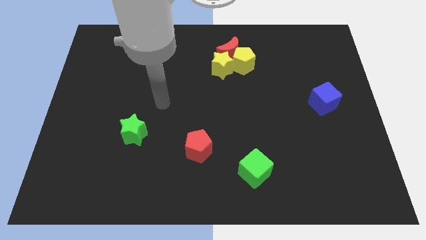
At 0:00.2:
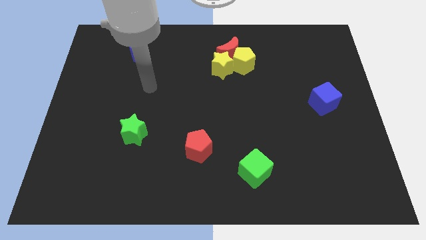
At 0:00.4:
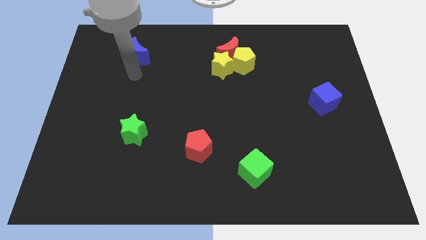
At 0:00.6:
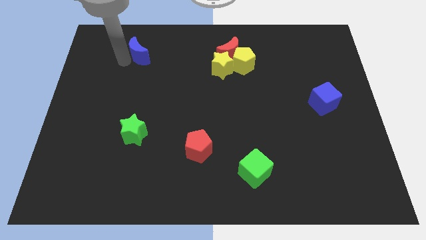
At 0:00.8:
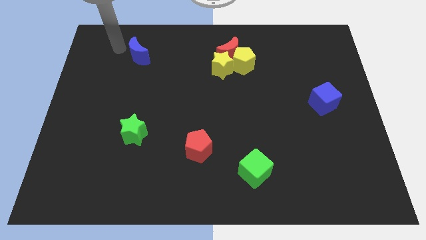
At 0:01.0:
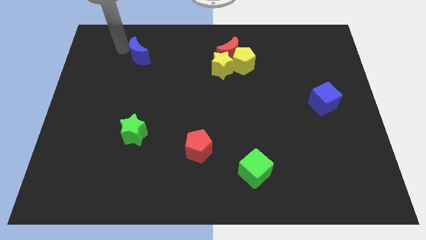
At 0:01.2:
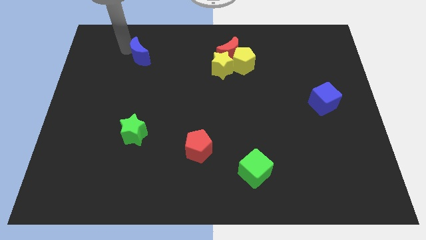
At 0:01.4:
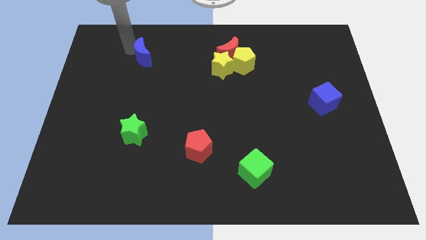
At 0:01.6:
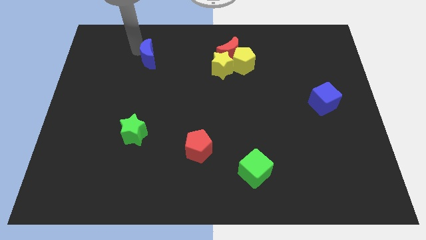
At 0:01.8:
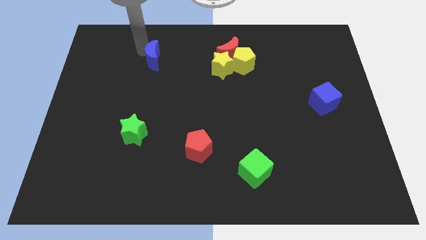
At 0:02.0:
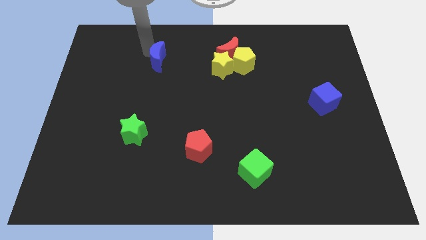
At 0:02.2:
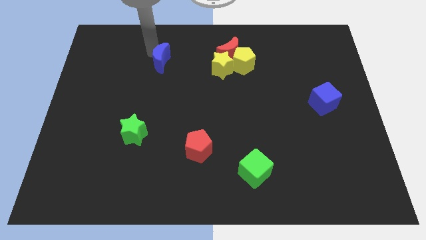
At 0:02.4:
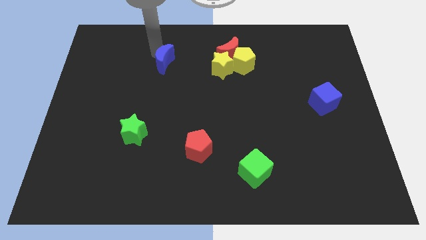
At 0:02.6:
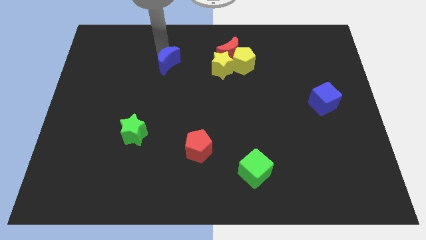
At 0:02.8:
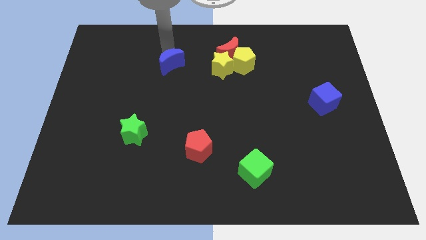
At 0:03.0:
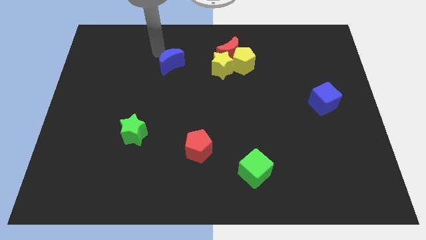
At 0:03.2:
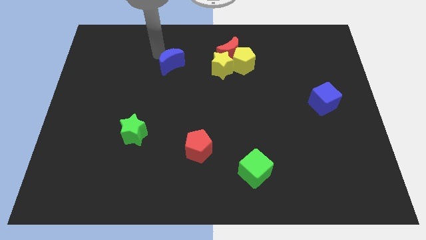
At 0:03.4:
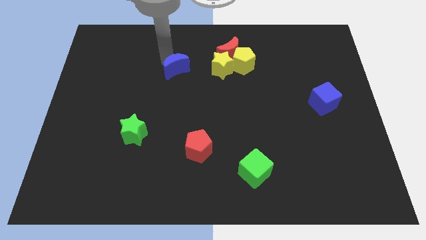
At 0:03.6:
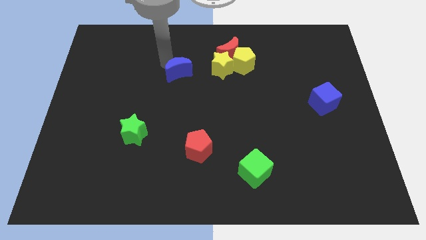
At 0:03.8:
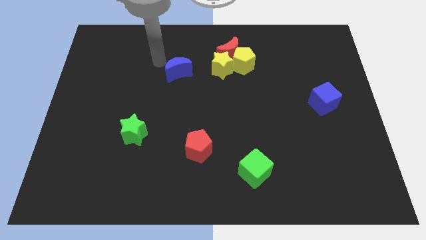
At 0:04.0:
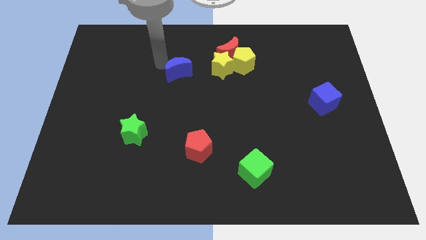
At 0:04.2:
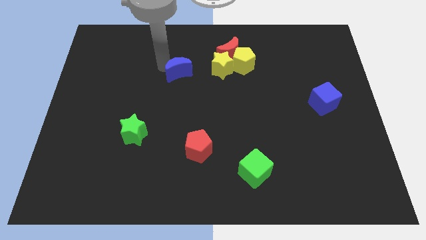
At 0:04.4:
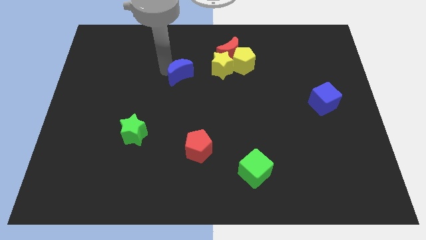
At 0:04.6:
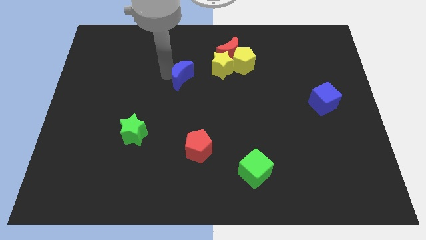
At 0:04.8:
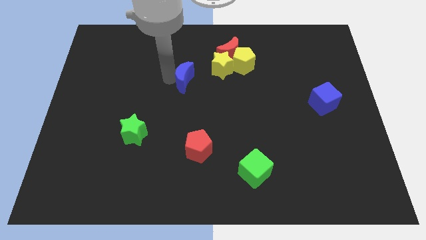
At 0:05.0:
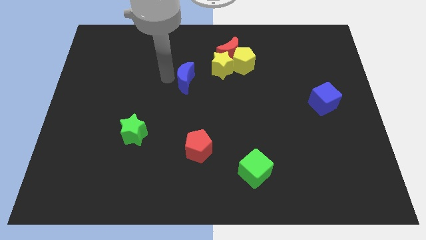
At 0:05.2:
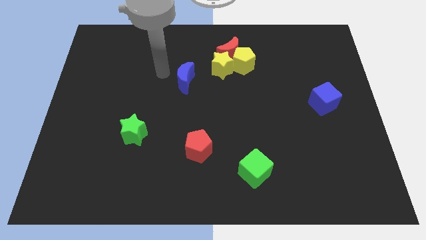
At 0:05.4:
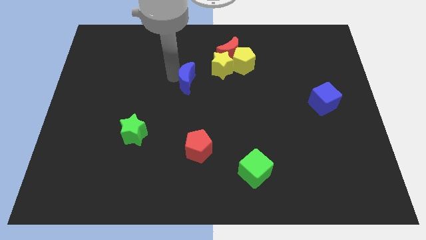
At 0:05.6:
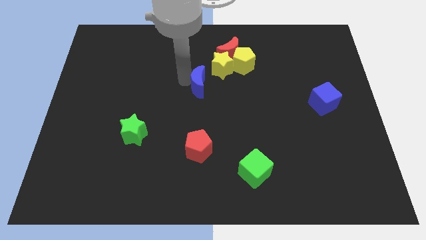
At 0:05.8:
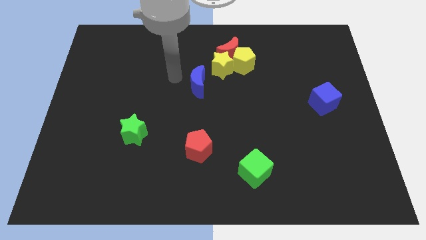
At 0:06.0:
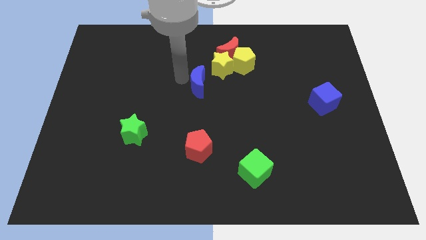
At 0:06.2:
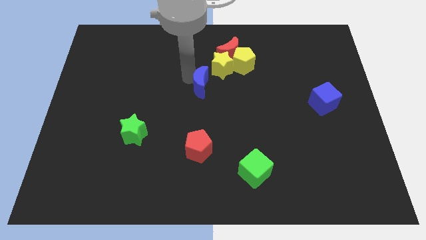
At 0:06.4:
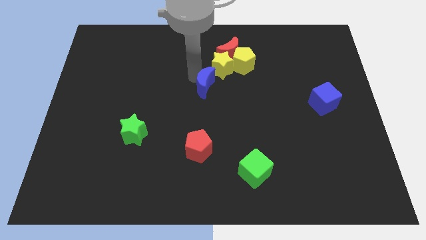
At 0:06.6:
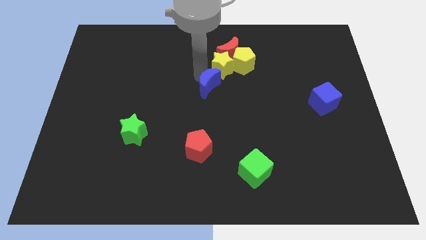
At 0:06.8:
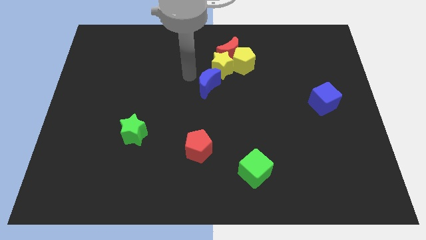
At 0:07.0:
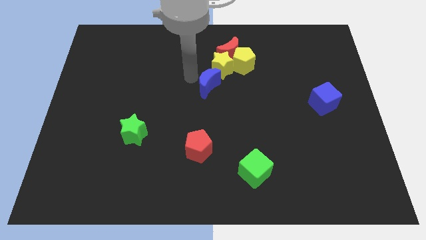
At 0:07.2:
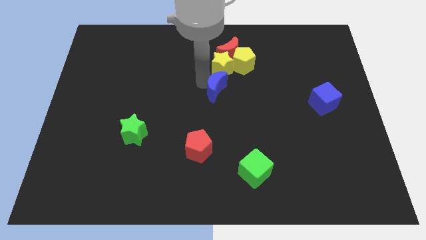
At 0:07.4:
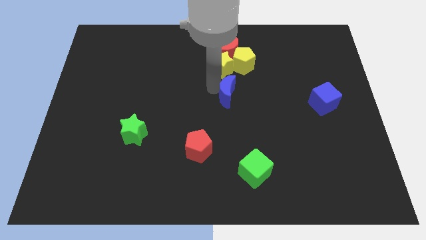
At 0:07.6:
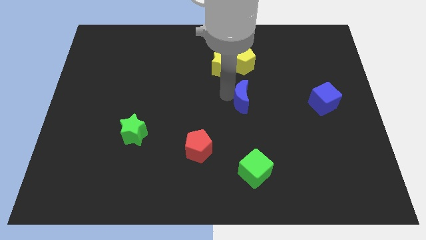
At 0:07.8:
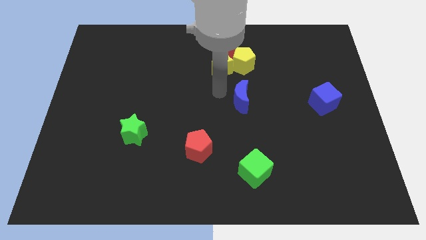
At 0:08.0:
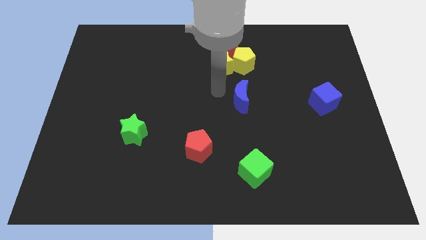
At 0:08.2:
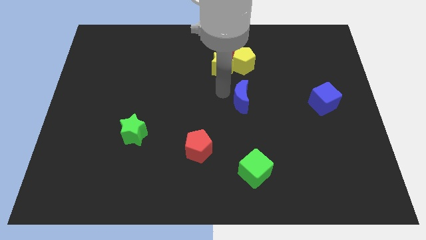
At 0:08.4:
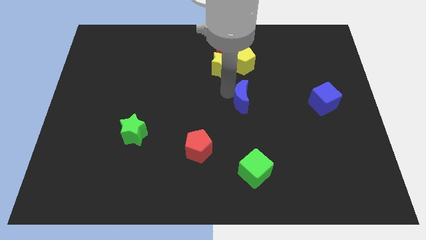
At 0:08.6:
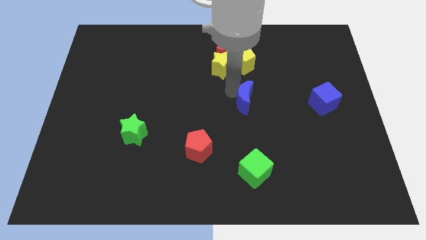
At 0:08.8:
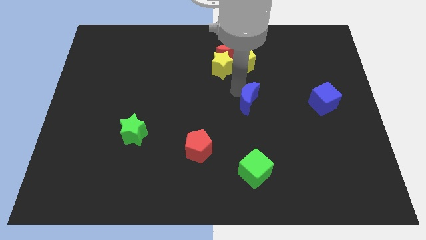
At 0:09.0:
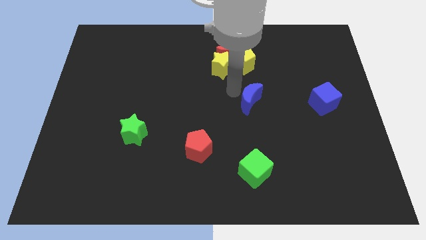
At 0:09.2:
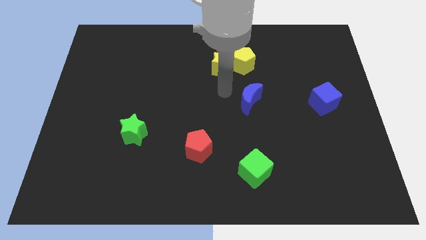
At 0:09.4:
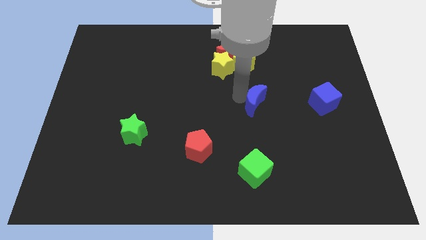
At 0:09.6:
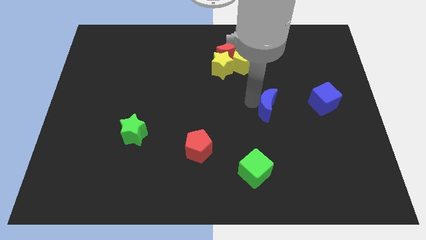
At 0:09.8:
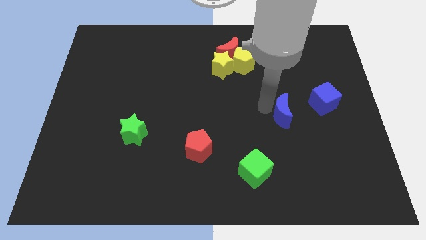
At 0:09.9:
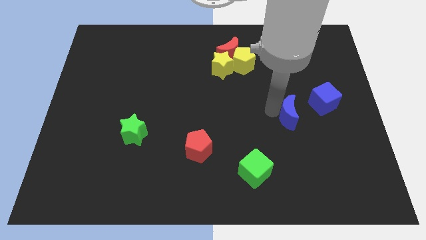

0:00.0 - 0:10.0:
move the blue moon to the bottom left of the blue cube

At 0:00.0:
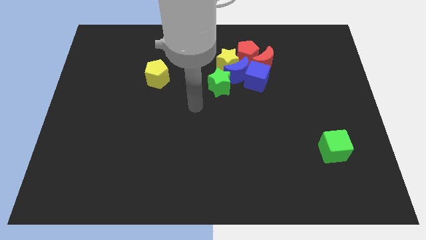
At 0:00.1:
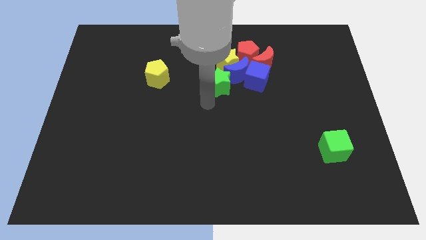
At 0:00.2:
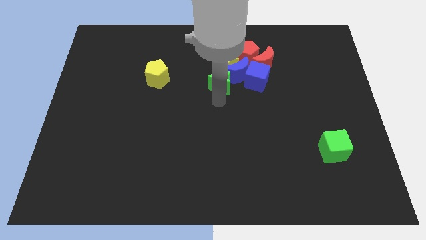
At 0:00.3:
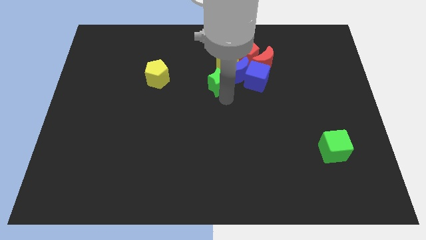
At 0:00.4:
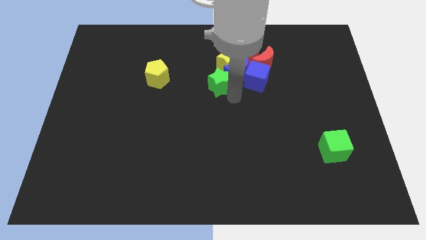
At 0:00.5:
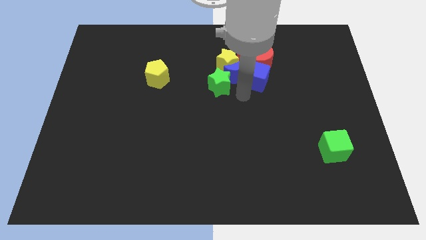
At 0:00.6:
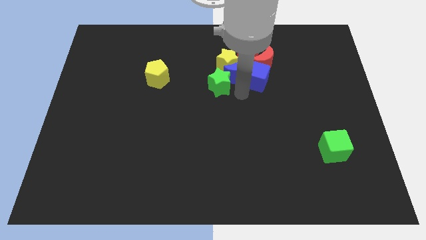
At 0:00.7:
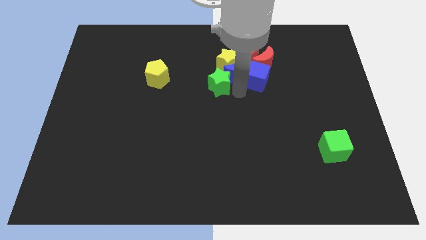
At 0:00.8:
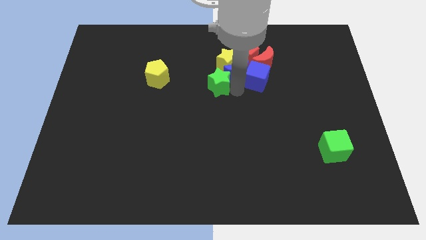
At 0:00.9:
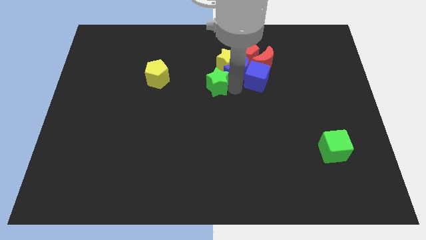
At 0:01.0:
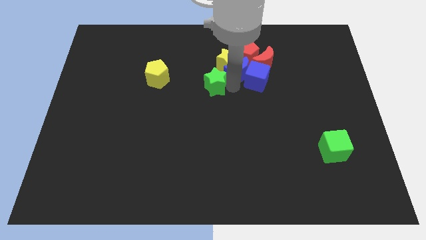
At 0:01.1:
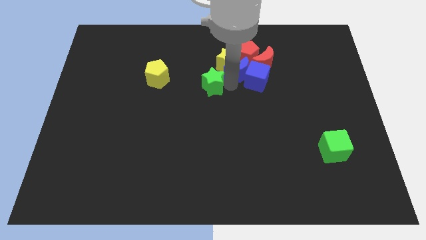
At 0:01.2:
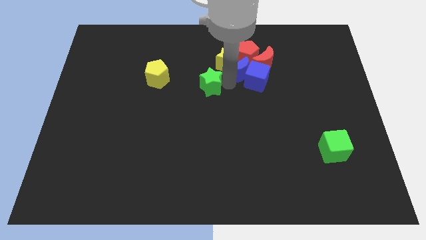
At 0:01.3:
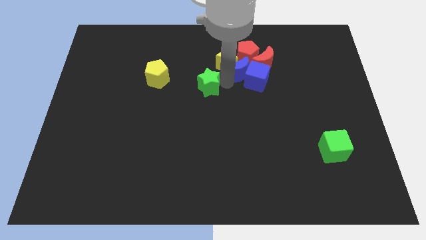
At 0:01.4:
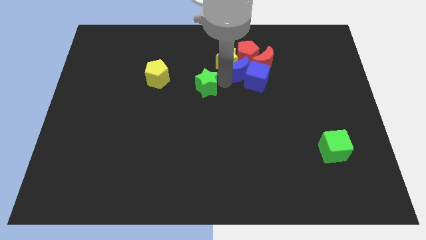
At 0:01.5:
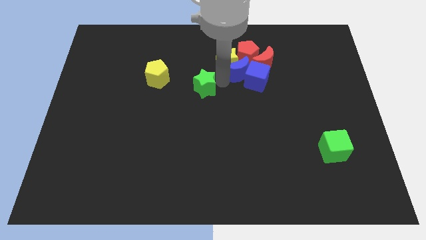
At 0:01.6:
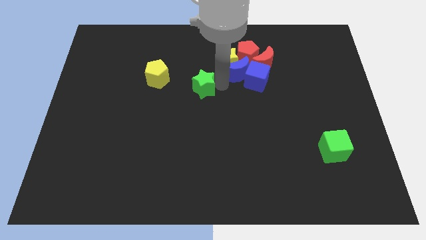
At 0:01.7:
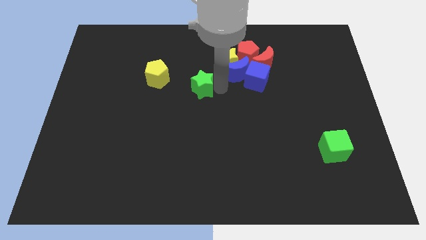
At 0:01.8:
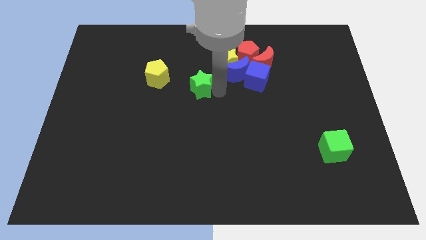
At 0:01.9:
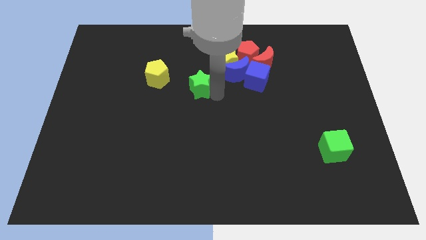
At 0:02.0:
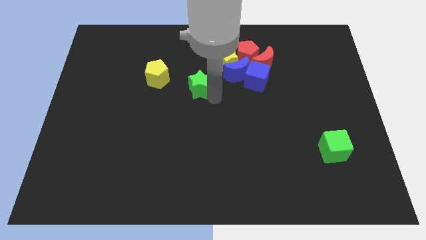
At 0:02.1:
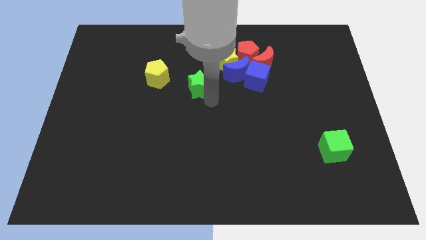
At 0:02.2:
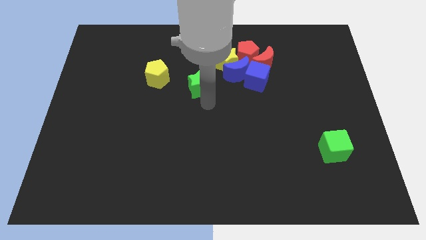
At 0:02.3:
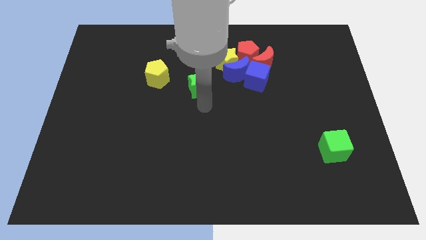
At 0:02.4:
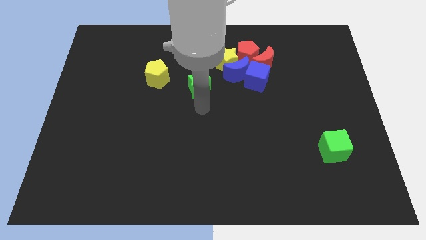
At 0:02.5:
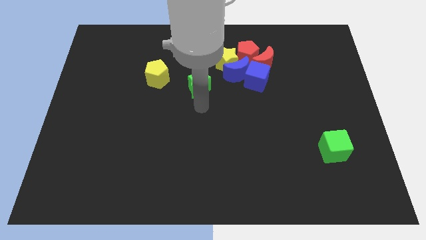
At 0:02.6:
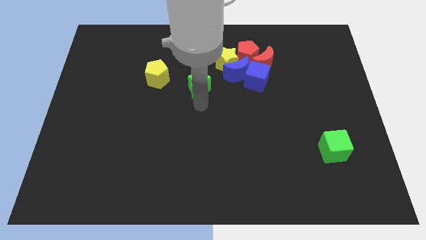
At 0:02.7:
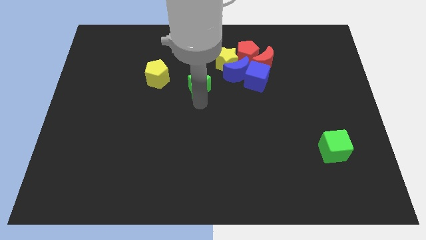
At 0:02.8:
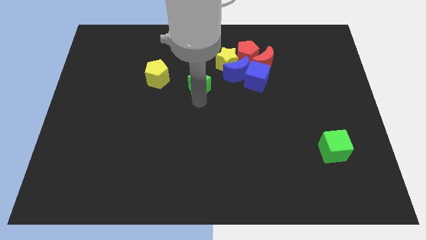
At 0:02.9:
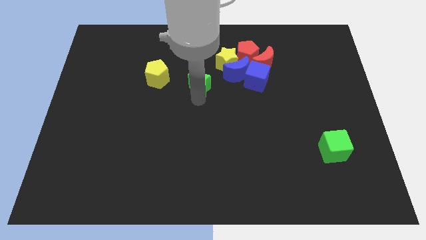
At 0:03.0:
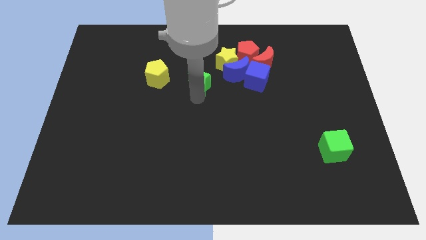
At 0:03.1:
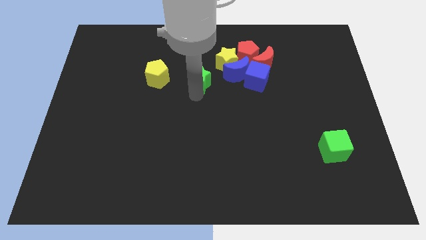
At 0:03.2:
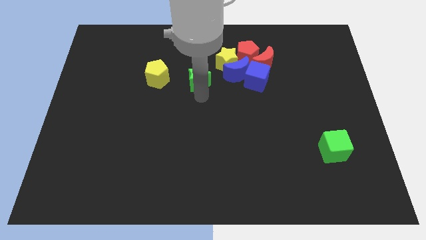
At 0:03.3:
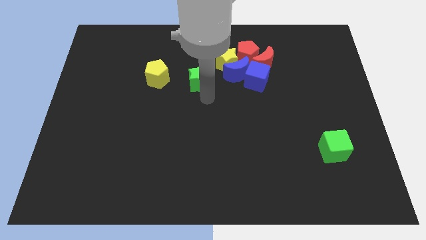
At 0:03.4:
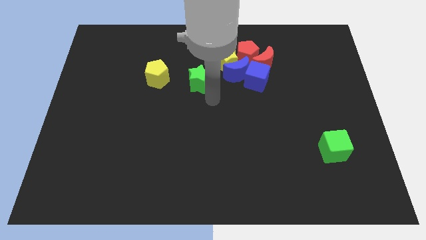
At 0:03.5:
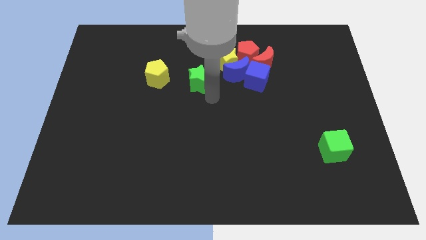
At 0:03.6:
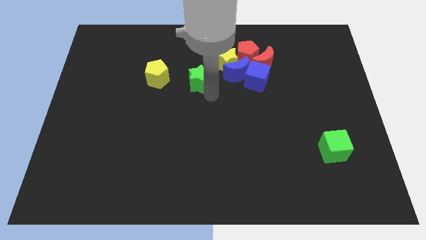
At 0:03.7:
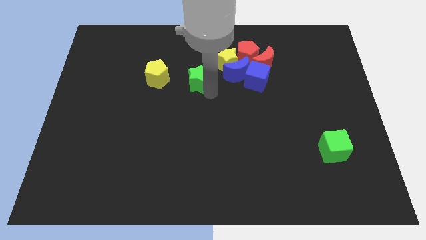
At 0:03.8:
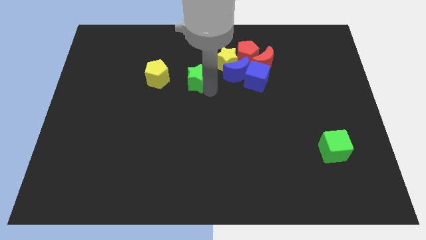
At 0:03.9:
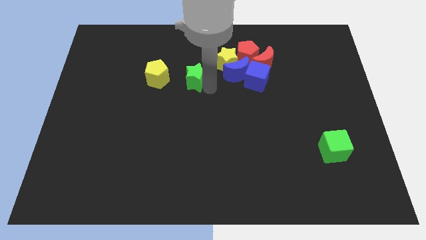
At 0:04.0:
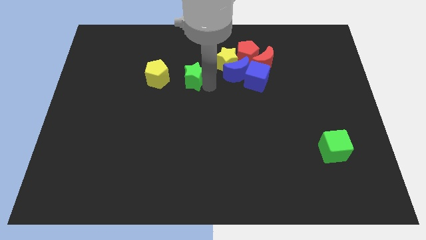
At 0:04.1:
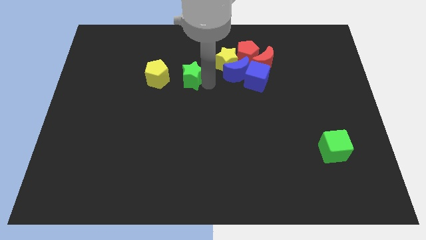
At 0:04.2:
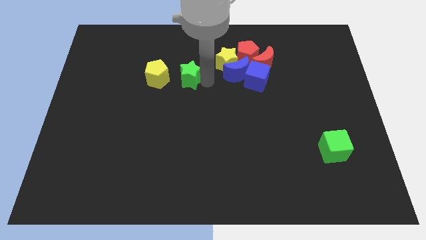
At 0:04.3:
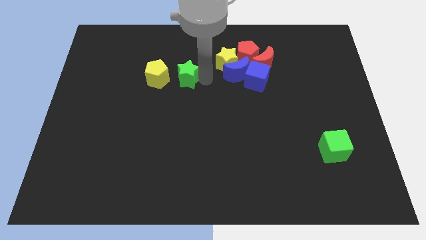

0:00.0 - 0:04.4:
move the green star to the left of the yellow star
